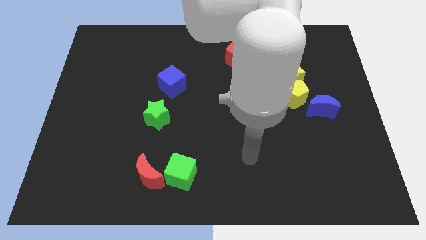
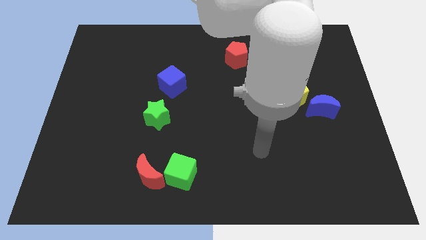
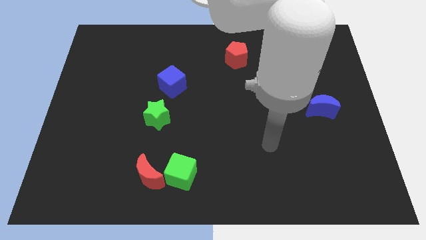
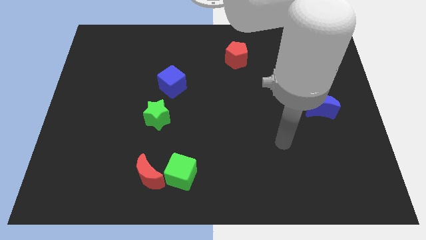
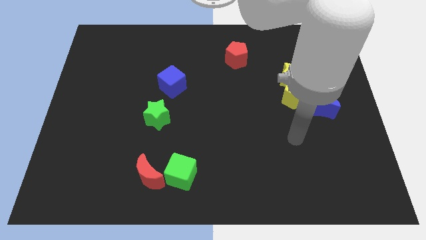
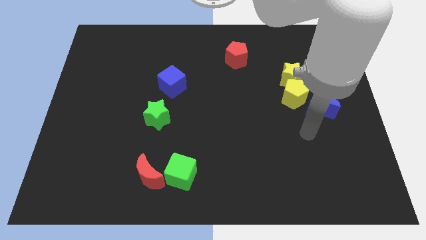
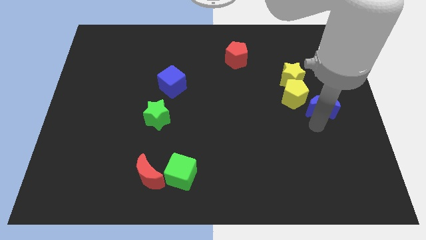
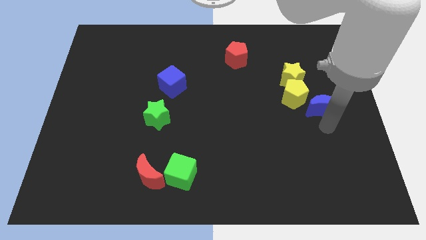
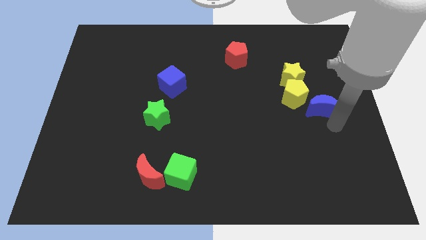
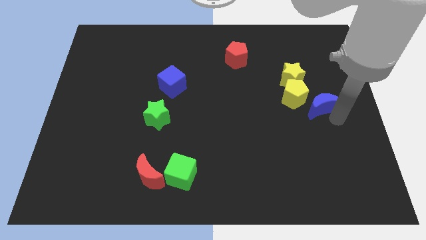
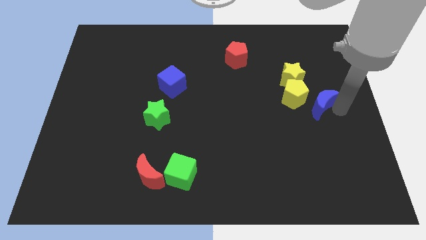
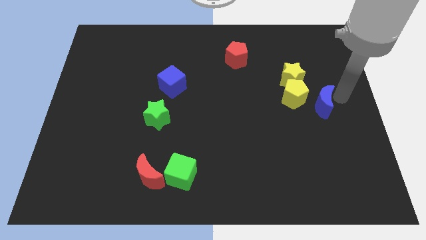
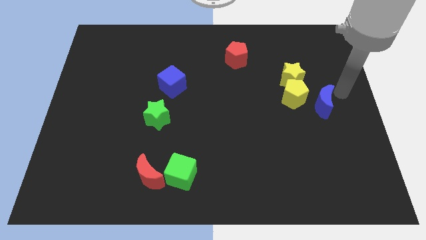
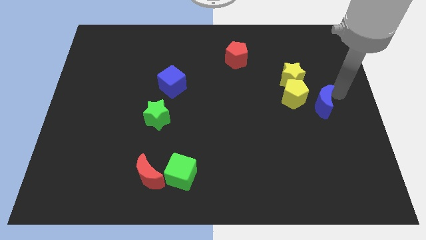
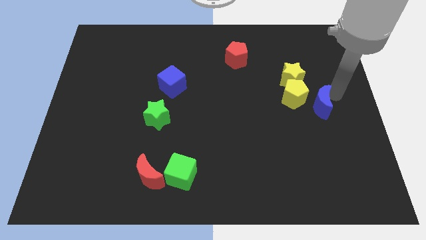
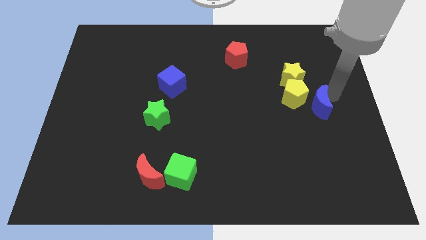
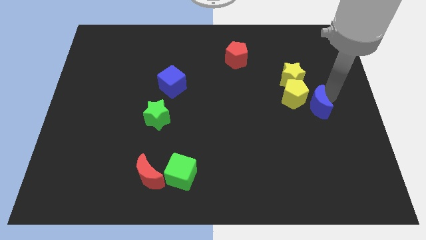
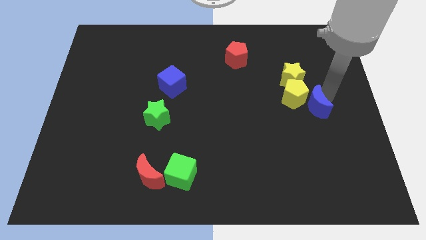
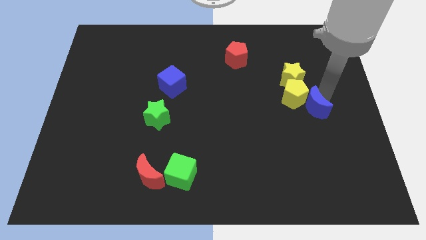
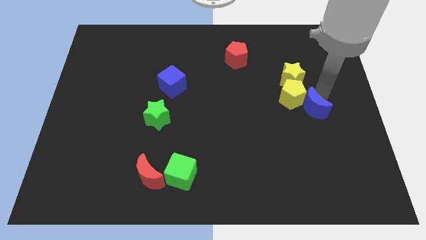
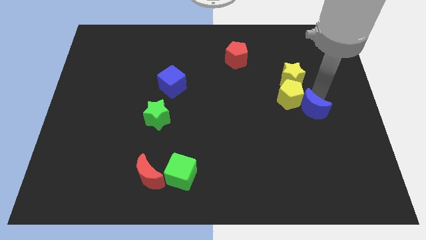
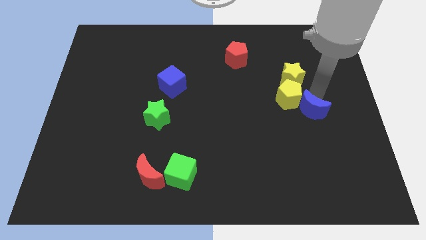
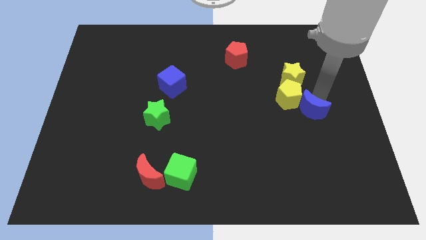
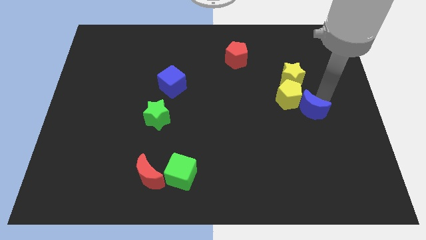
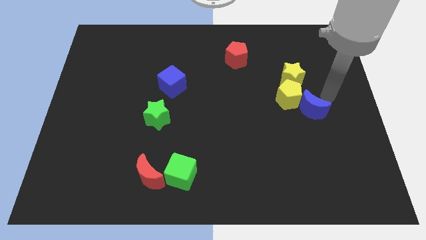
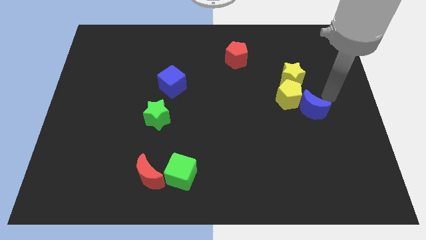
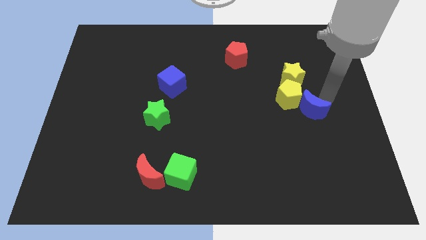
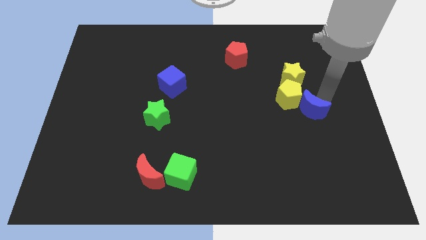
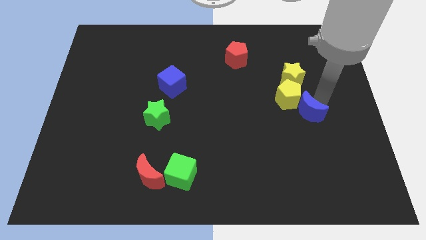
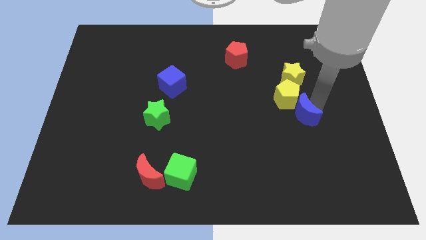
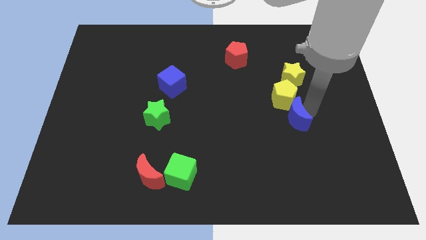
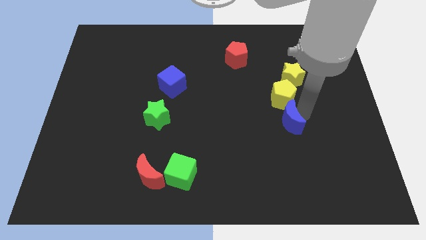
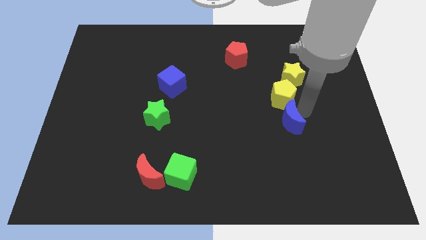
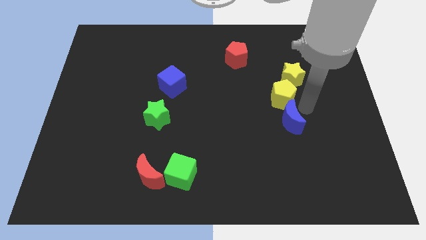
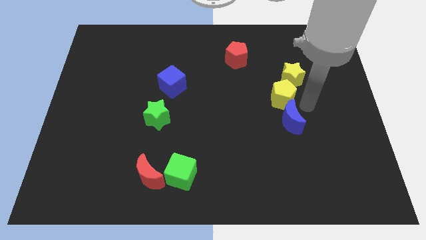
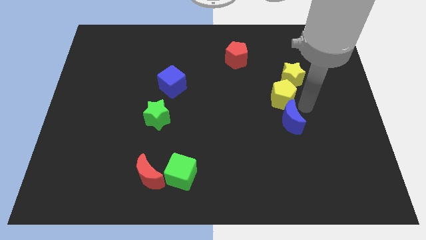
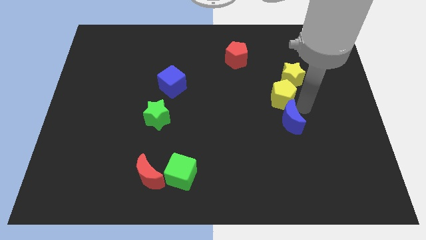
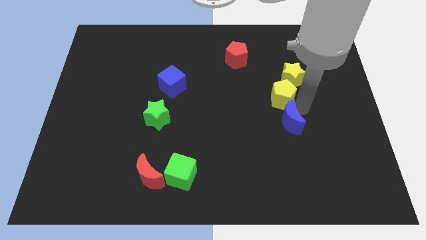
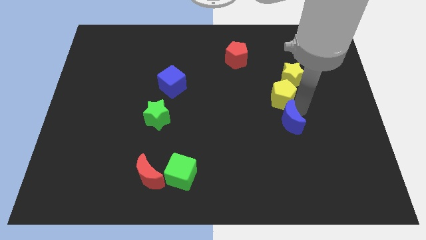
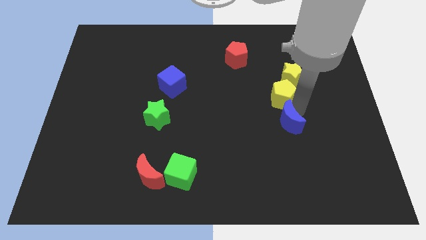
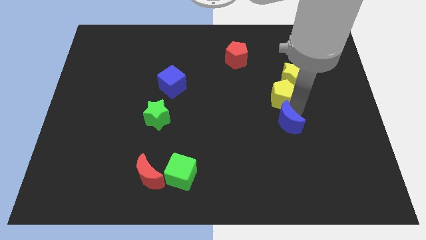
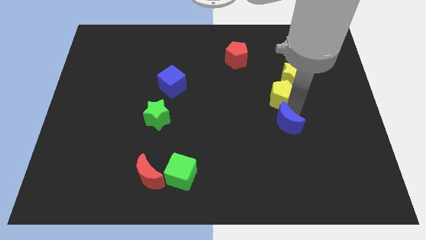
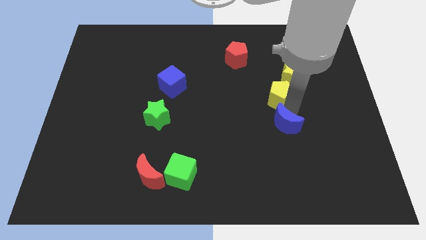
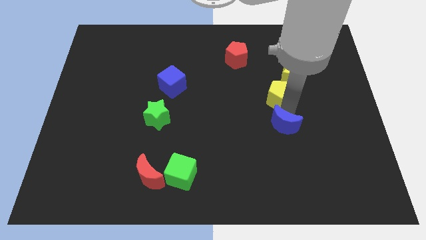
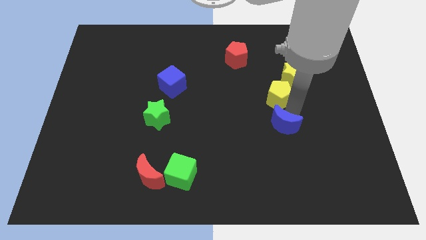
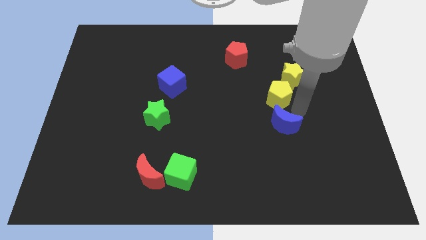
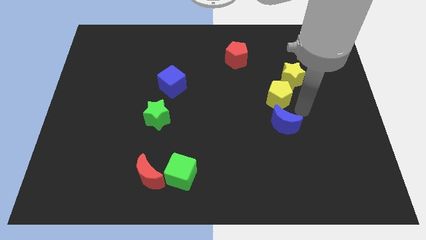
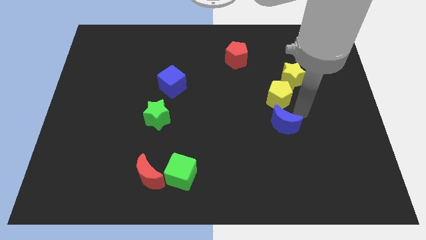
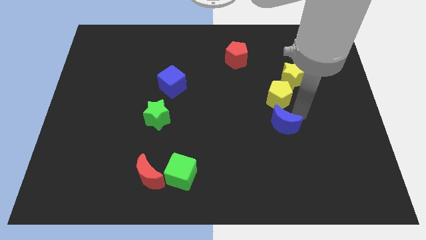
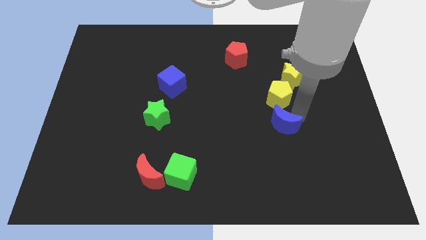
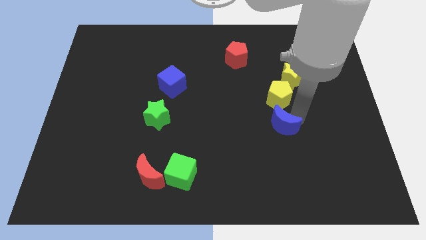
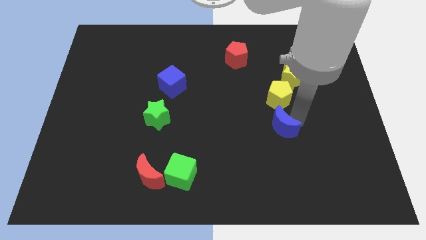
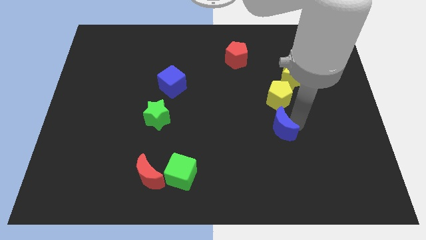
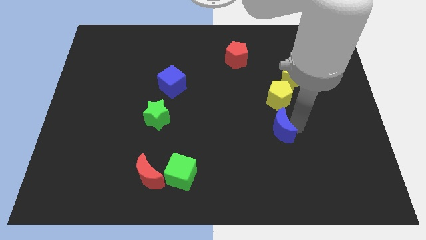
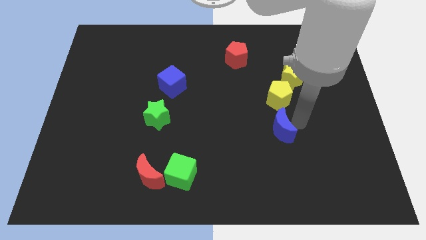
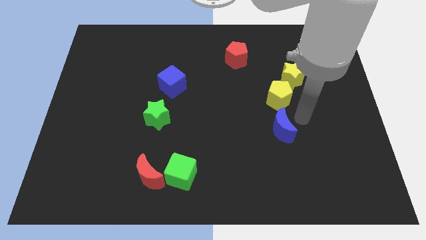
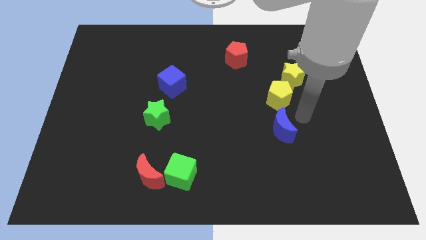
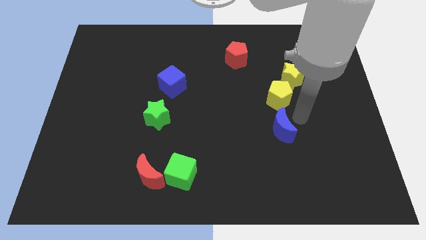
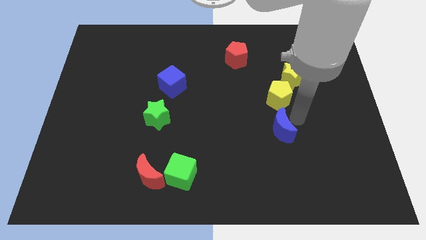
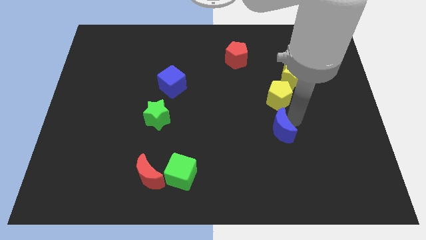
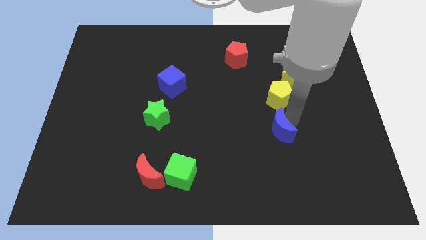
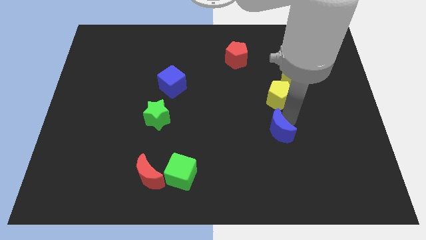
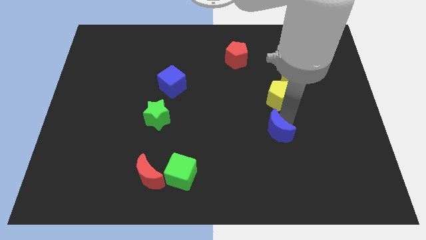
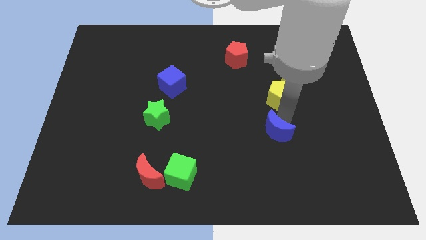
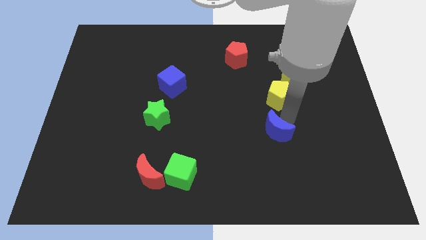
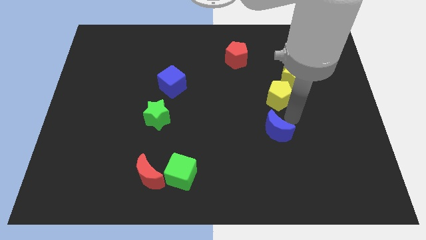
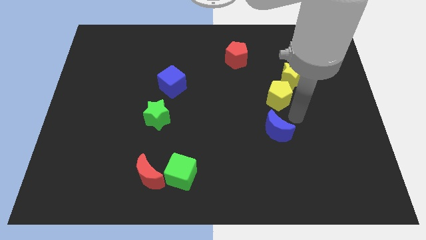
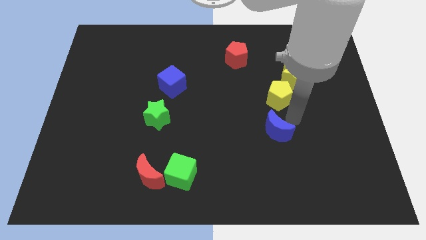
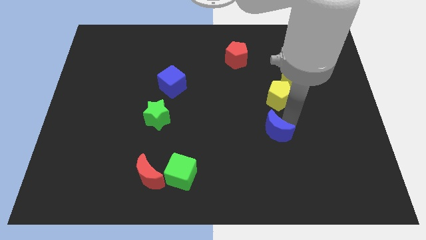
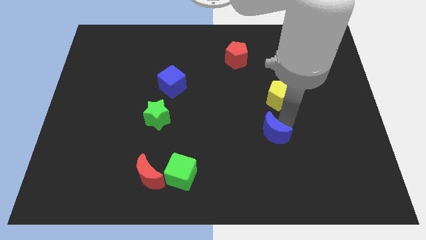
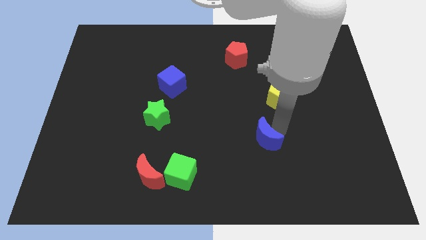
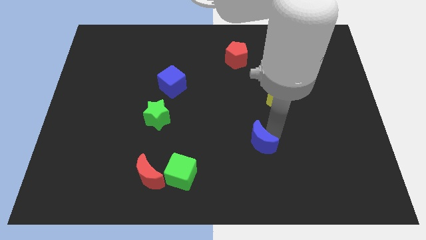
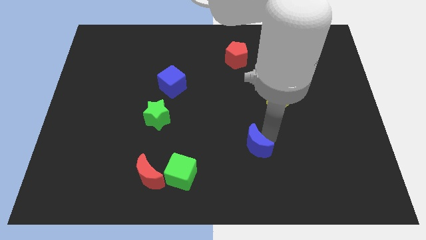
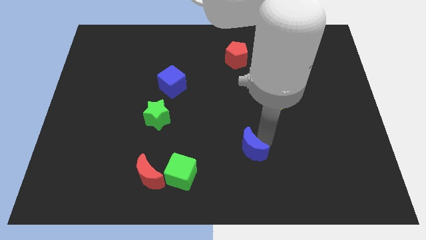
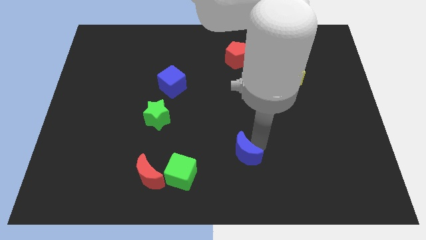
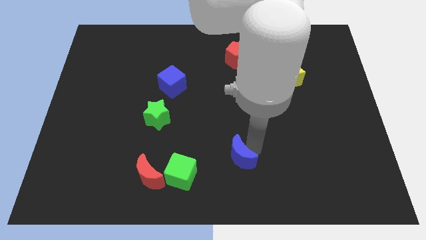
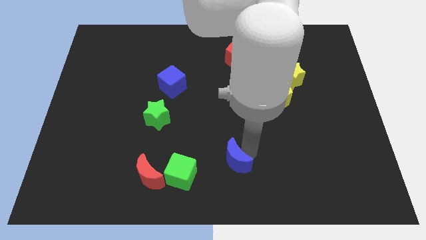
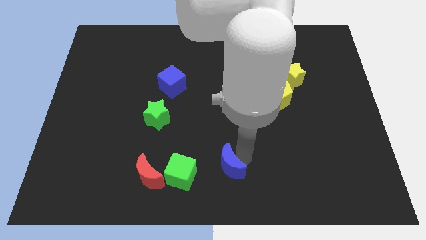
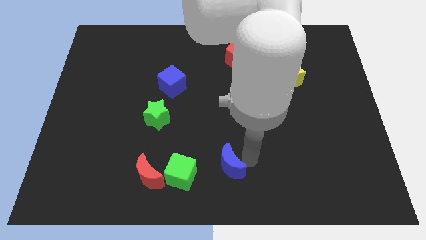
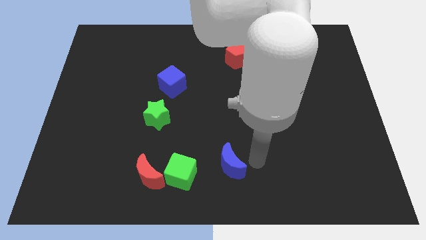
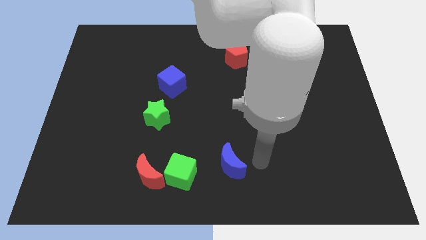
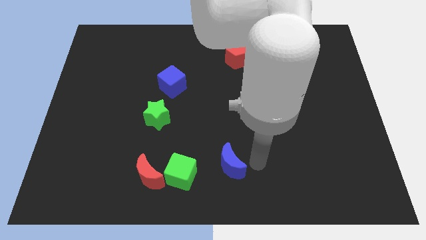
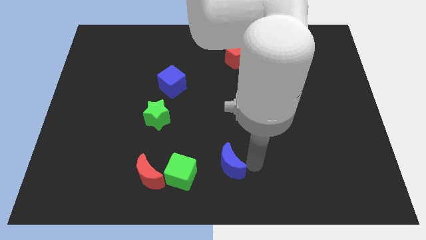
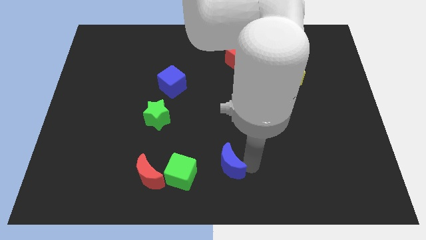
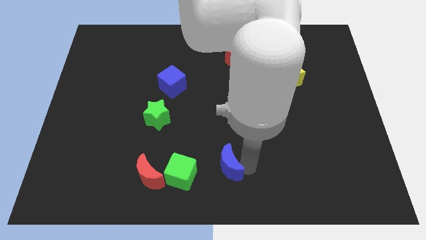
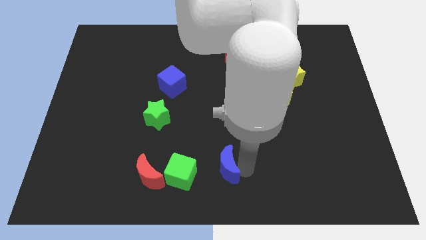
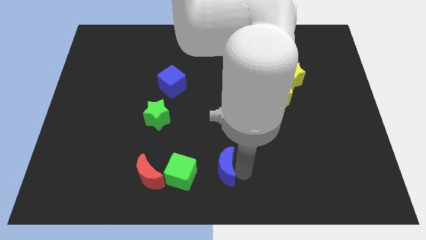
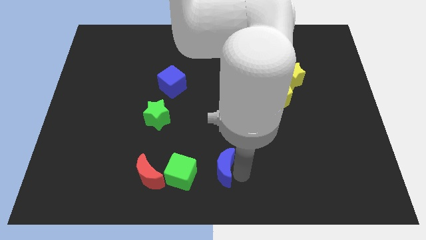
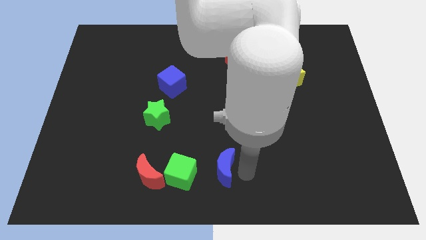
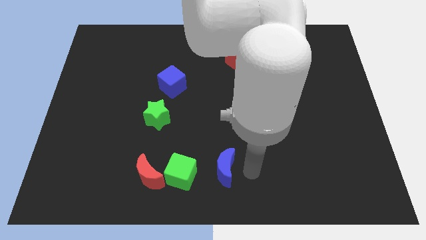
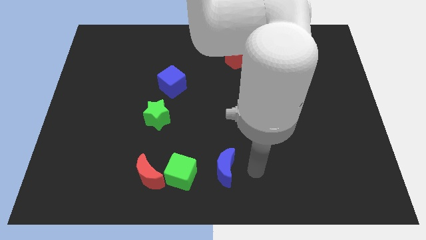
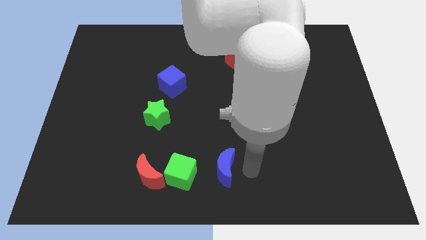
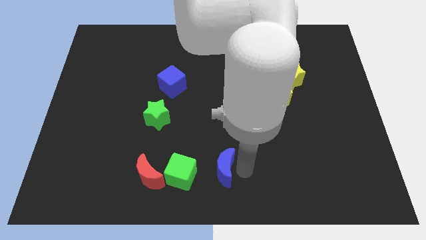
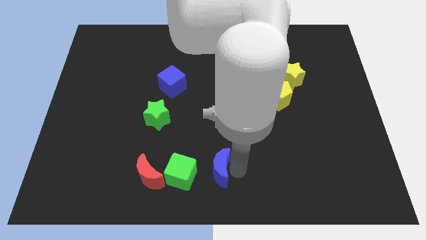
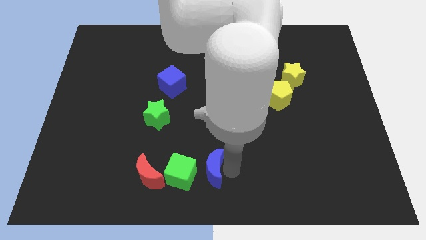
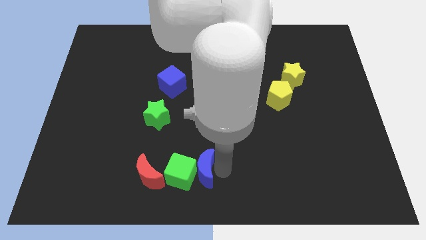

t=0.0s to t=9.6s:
slide the blue moon to the green cube
